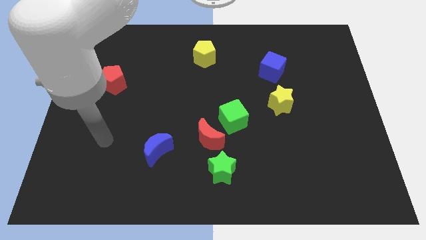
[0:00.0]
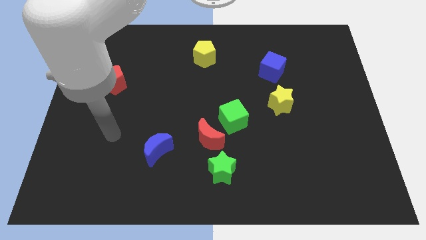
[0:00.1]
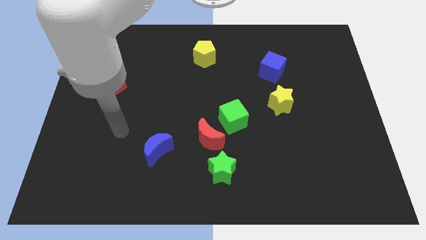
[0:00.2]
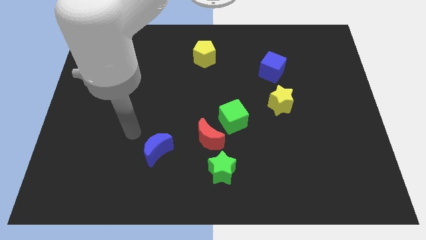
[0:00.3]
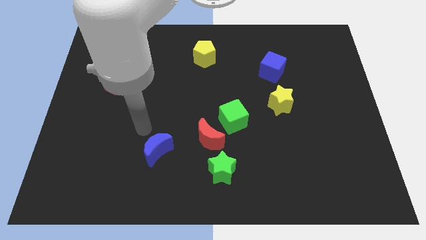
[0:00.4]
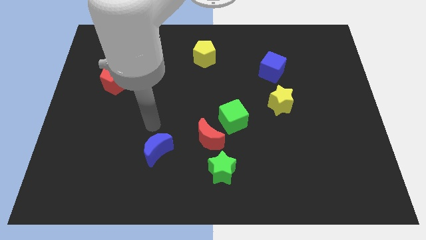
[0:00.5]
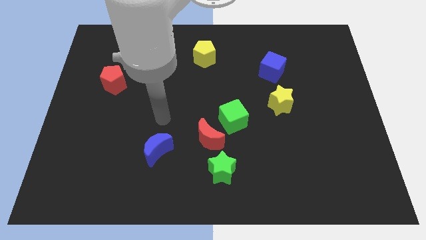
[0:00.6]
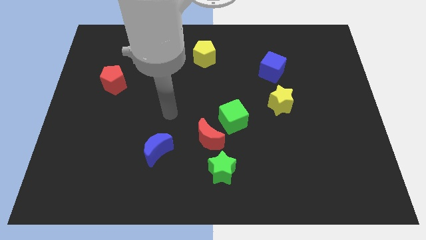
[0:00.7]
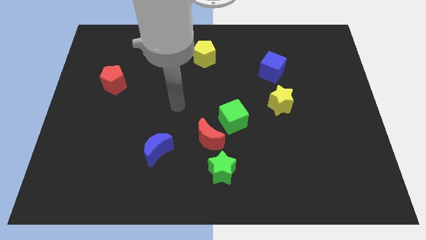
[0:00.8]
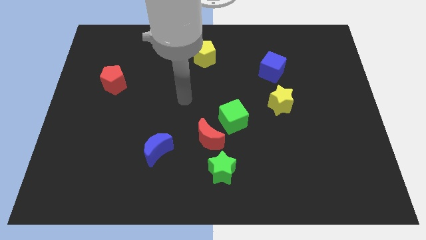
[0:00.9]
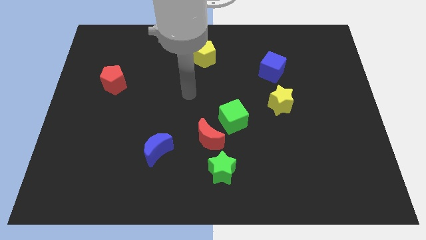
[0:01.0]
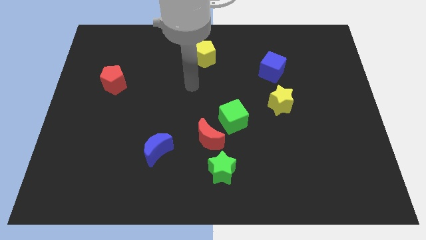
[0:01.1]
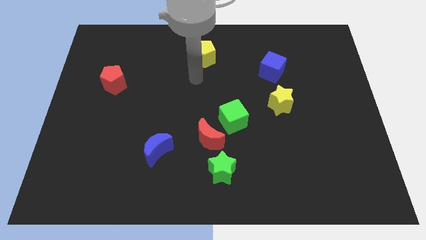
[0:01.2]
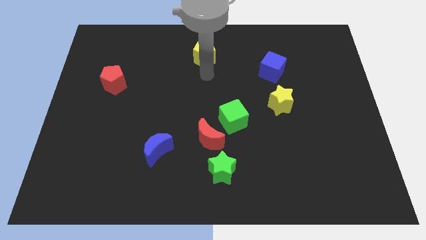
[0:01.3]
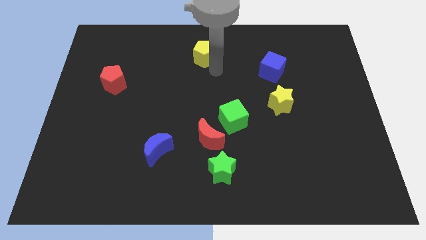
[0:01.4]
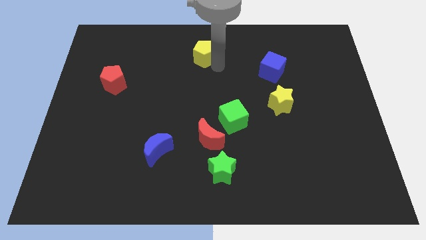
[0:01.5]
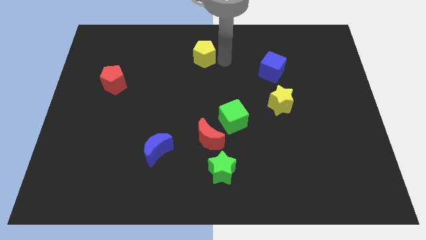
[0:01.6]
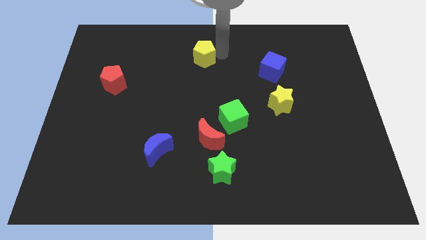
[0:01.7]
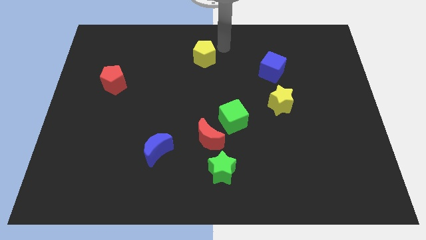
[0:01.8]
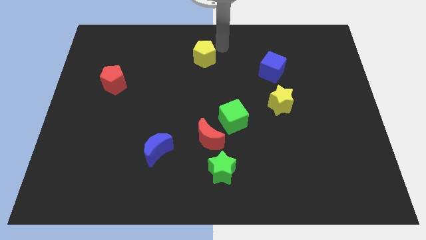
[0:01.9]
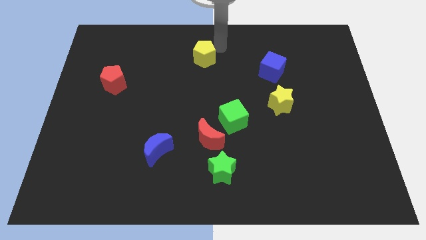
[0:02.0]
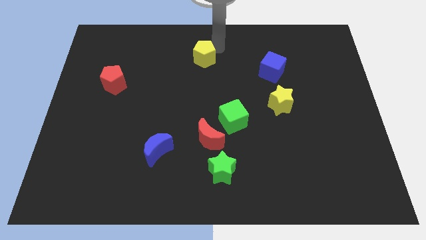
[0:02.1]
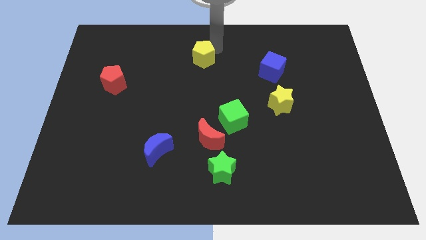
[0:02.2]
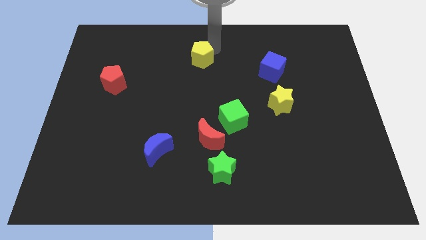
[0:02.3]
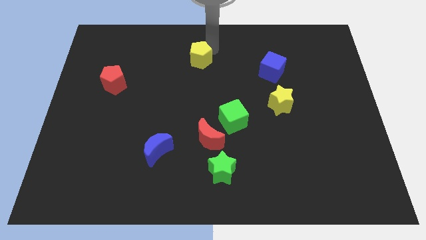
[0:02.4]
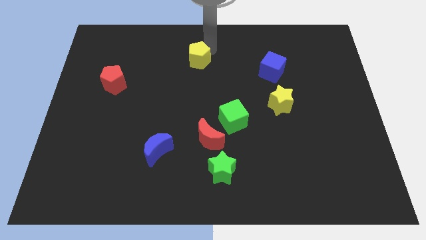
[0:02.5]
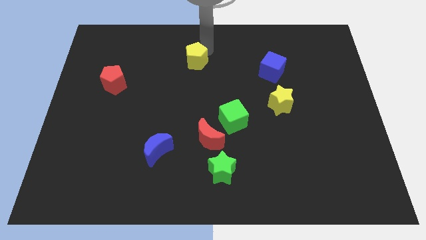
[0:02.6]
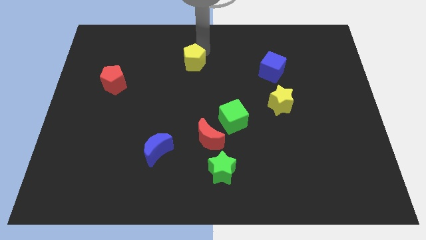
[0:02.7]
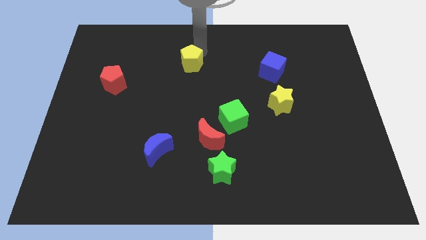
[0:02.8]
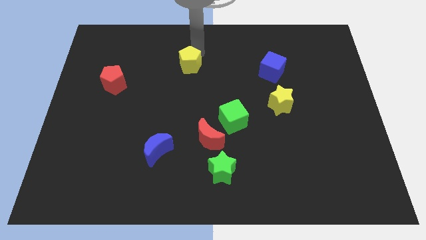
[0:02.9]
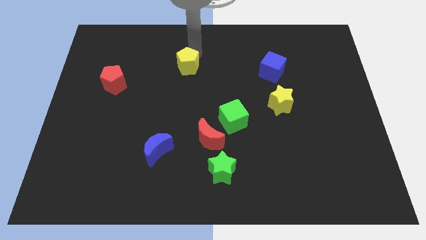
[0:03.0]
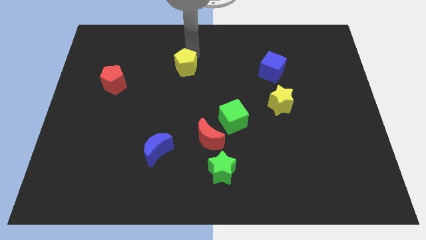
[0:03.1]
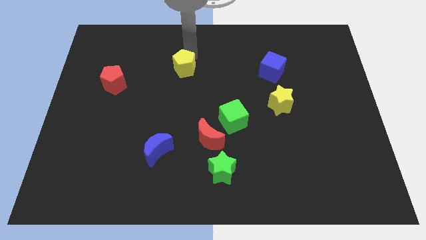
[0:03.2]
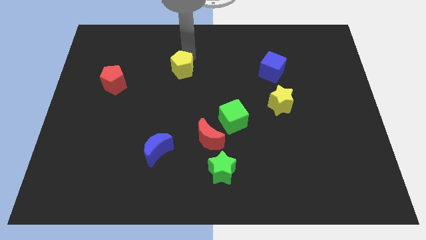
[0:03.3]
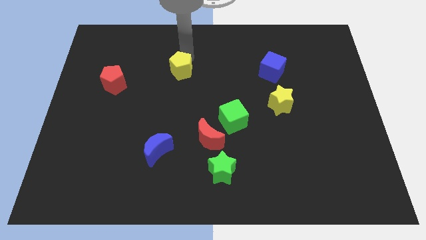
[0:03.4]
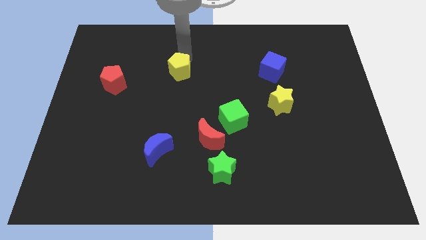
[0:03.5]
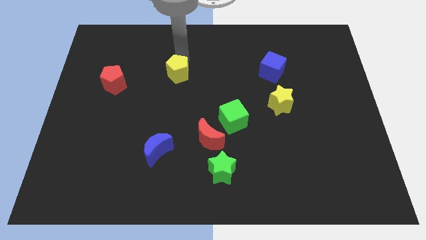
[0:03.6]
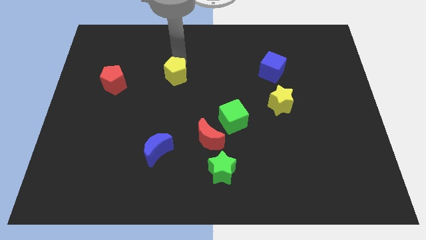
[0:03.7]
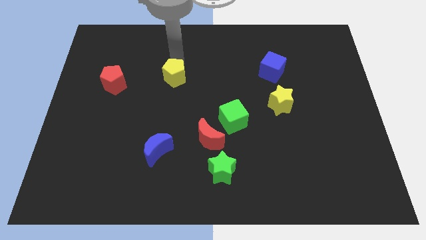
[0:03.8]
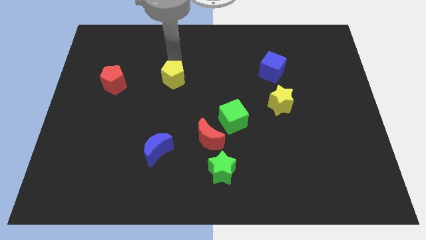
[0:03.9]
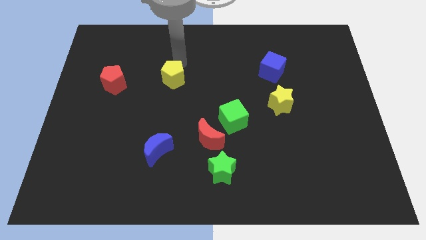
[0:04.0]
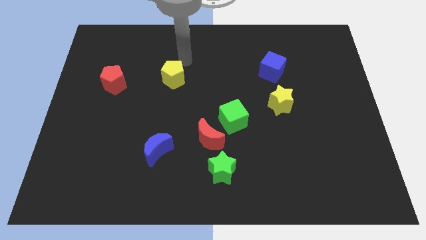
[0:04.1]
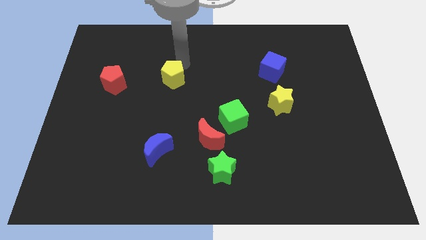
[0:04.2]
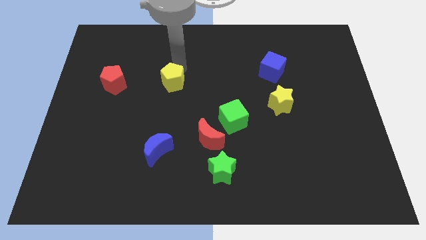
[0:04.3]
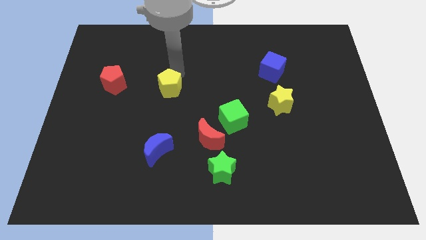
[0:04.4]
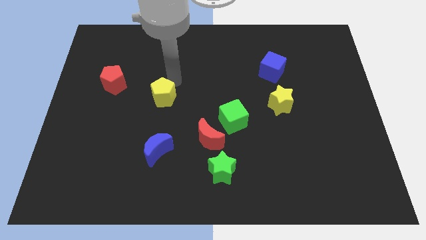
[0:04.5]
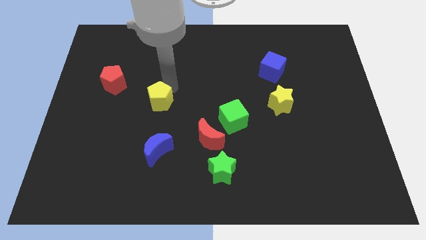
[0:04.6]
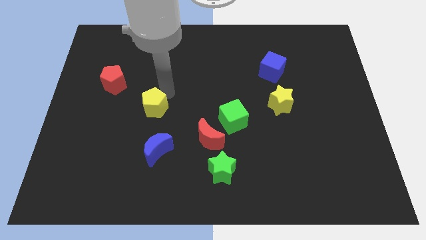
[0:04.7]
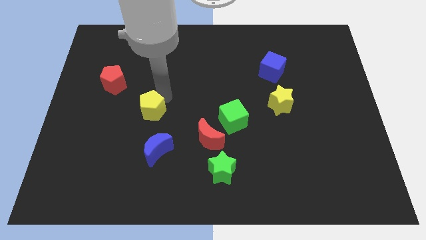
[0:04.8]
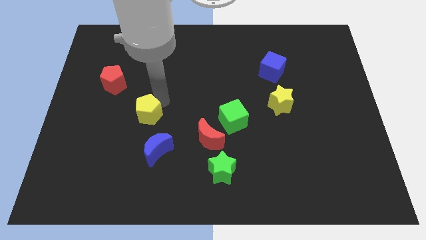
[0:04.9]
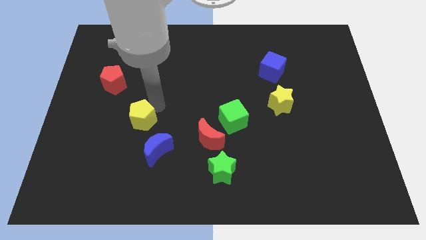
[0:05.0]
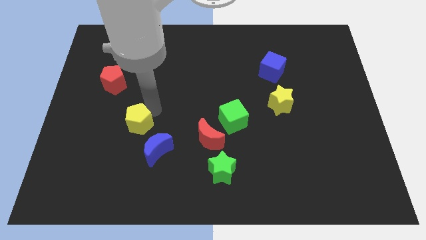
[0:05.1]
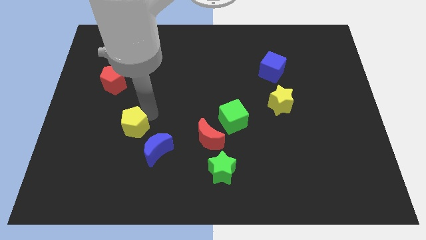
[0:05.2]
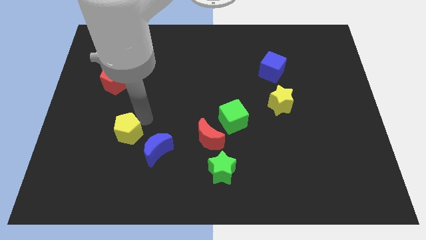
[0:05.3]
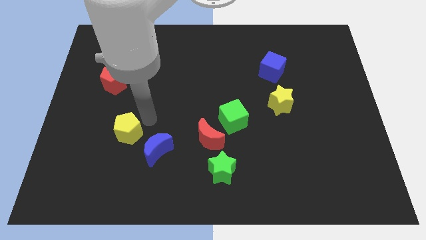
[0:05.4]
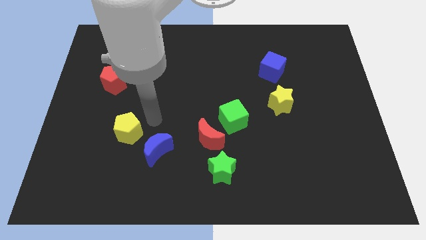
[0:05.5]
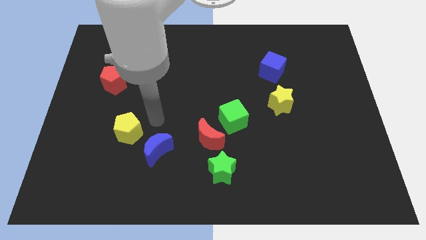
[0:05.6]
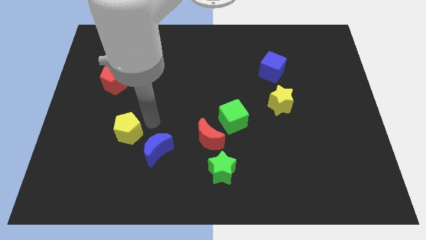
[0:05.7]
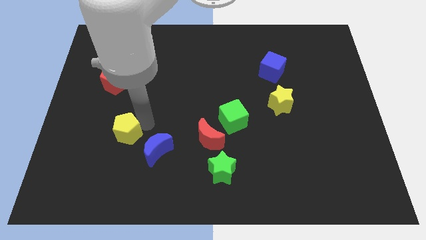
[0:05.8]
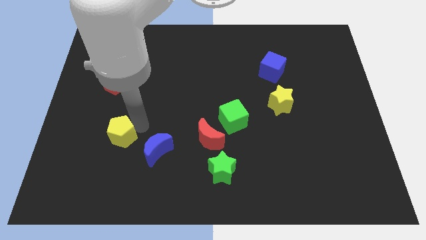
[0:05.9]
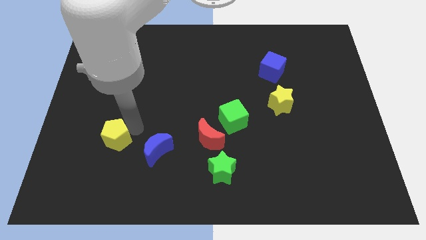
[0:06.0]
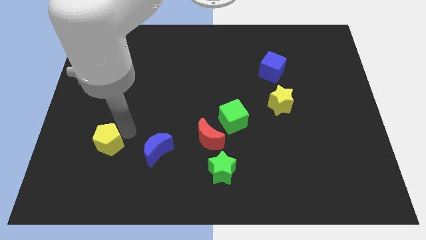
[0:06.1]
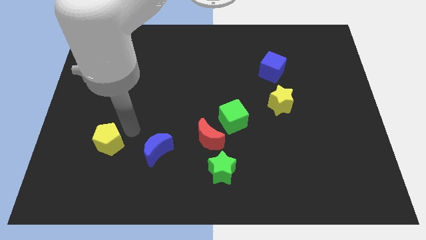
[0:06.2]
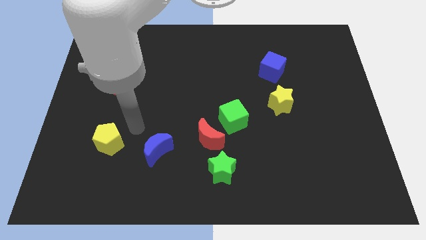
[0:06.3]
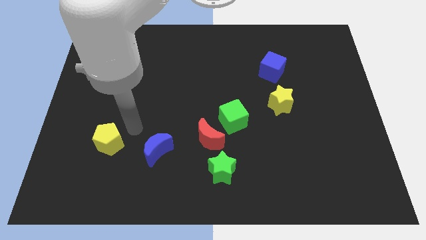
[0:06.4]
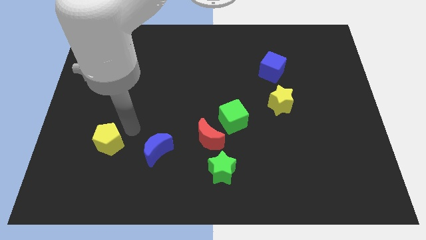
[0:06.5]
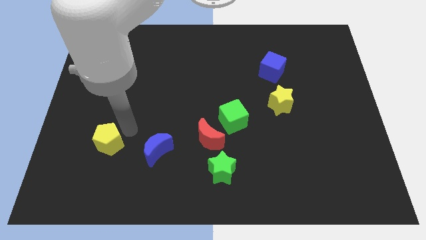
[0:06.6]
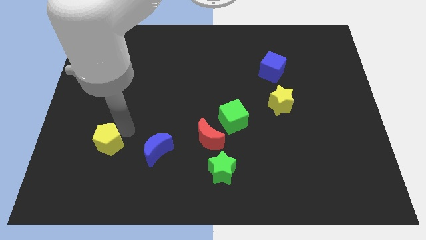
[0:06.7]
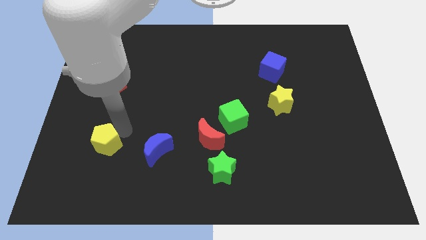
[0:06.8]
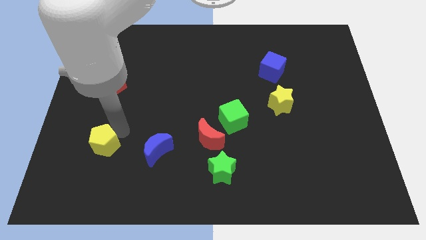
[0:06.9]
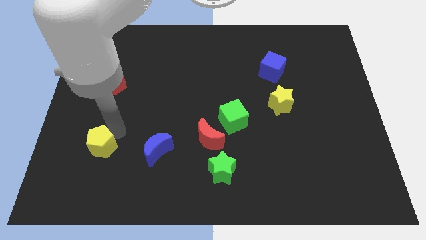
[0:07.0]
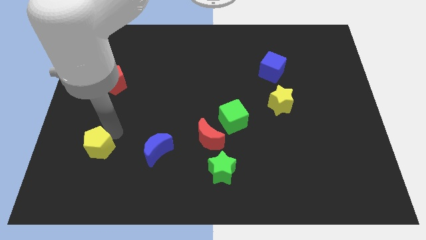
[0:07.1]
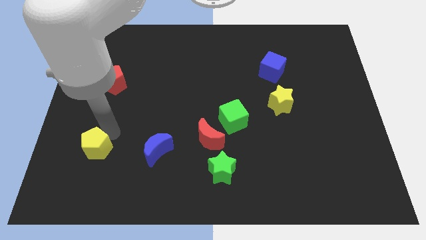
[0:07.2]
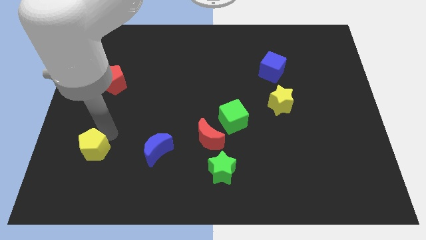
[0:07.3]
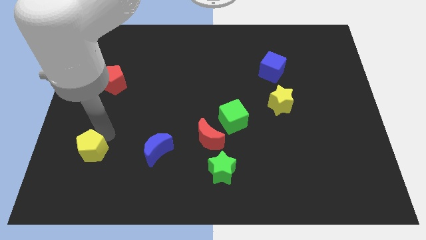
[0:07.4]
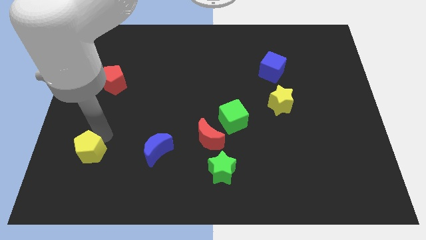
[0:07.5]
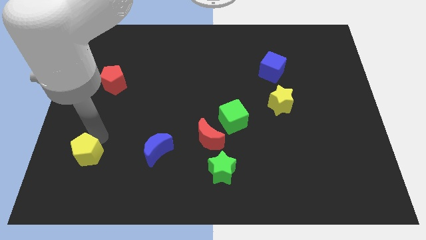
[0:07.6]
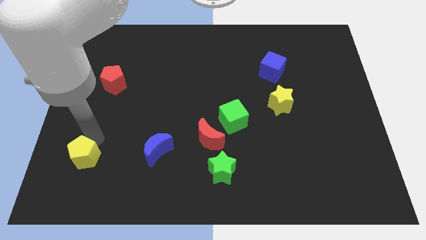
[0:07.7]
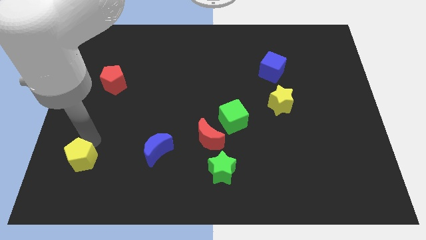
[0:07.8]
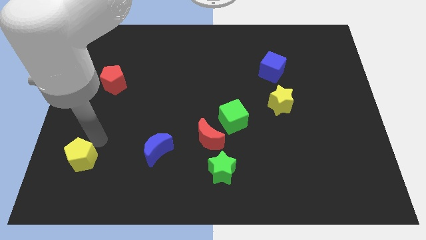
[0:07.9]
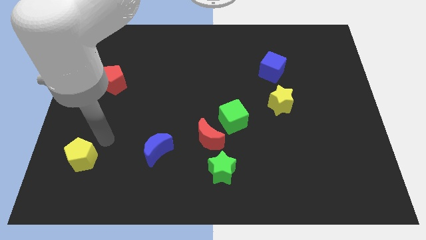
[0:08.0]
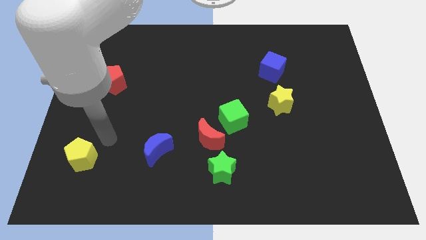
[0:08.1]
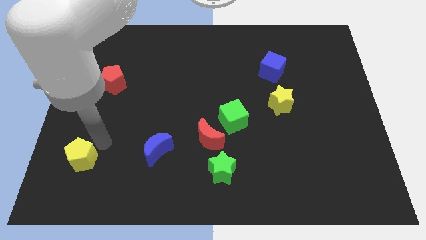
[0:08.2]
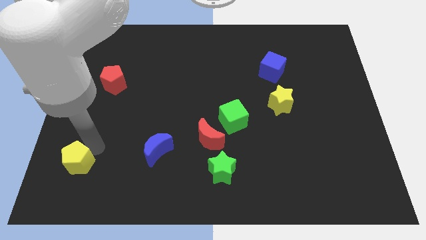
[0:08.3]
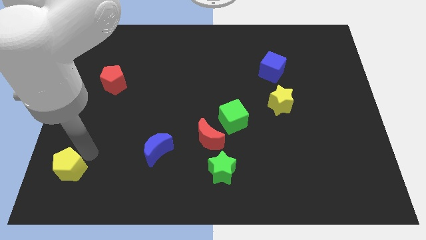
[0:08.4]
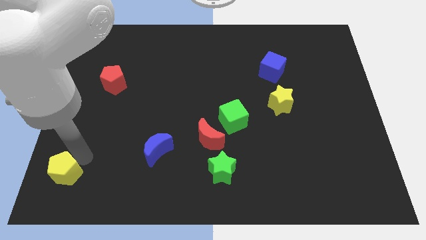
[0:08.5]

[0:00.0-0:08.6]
put the yellow pentagon to the bottom left
